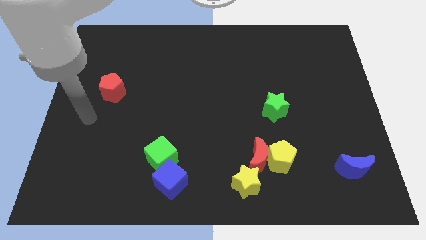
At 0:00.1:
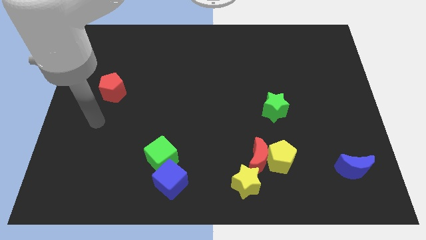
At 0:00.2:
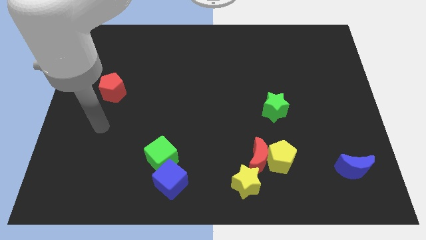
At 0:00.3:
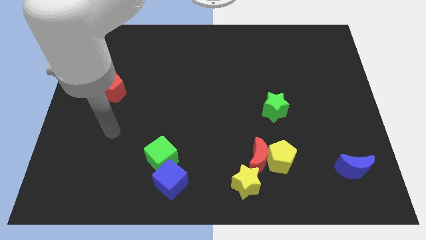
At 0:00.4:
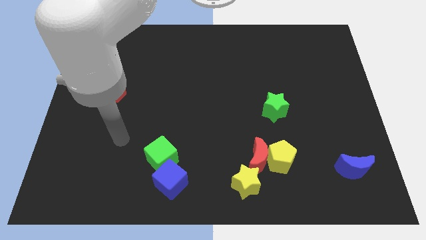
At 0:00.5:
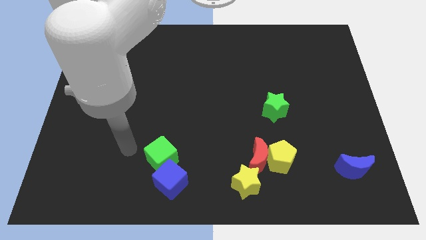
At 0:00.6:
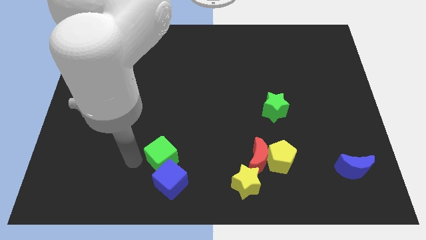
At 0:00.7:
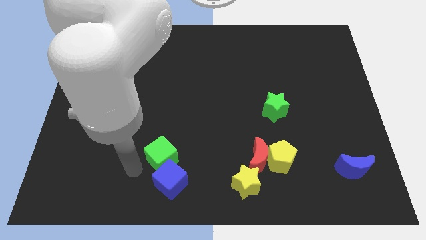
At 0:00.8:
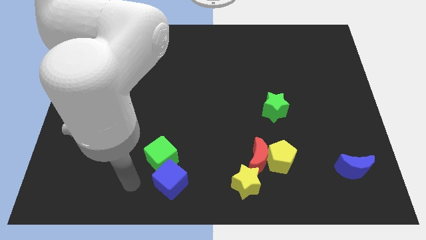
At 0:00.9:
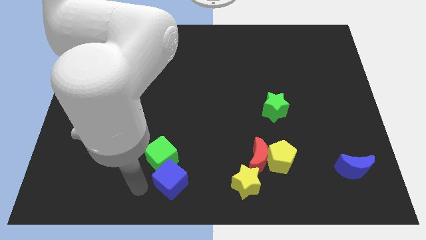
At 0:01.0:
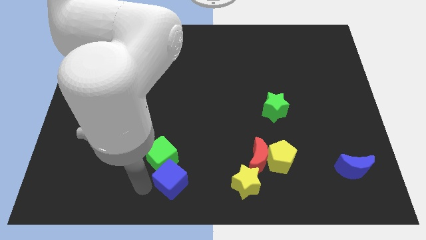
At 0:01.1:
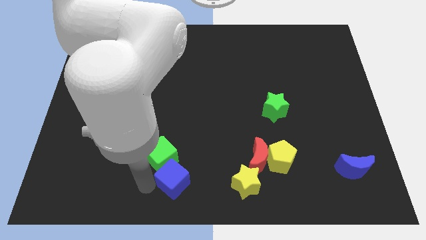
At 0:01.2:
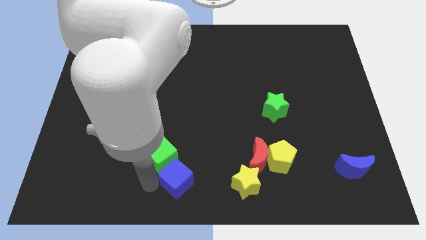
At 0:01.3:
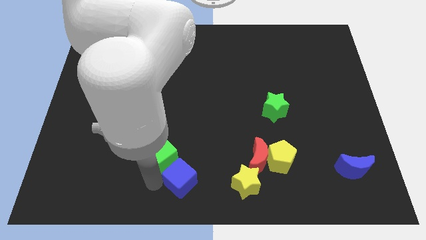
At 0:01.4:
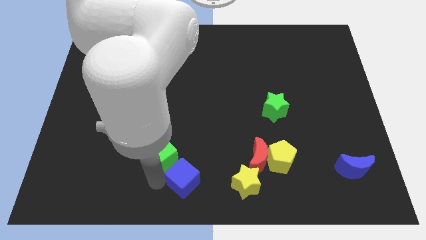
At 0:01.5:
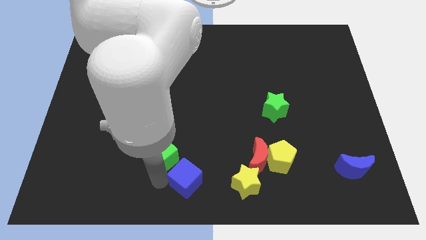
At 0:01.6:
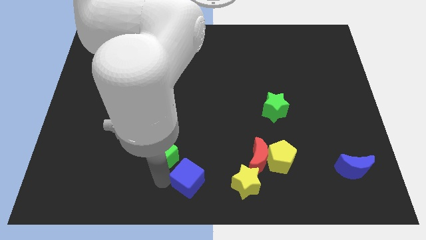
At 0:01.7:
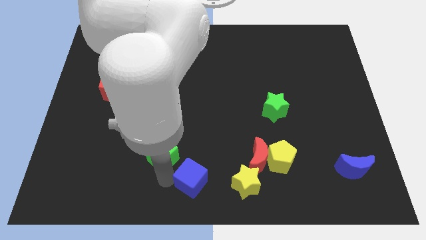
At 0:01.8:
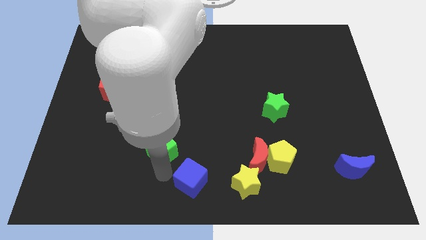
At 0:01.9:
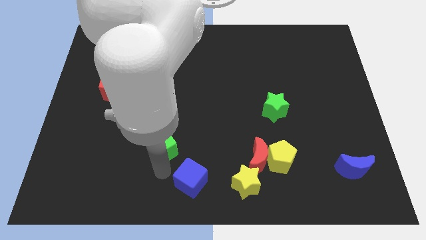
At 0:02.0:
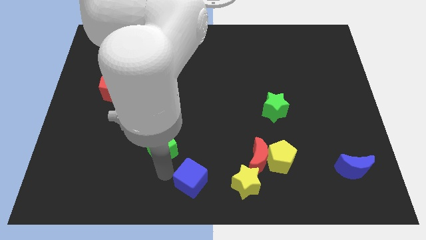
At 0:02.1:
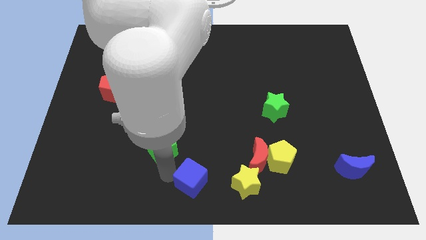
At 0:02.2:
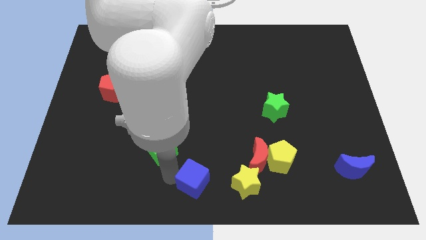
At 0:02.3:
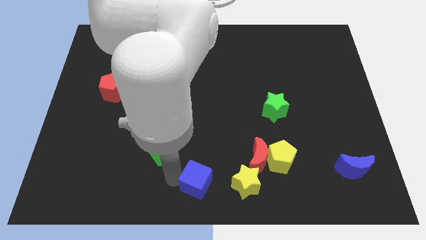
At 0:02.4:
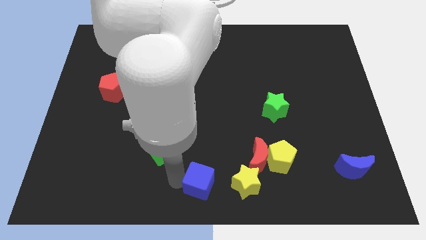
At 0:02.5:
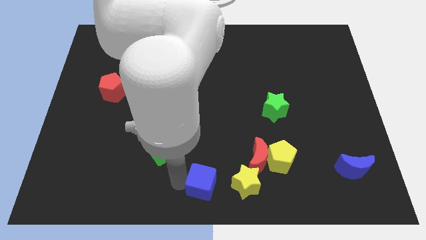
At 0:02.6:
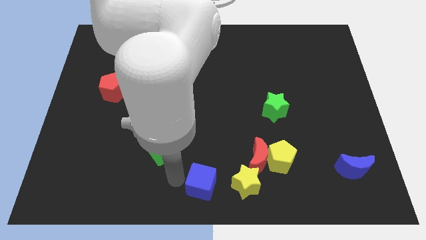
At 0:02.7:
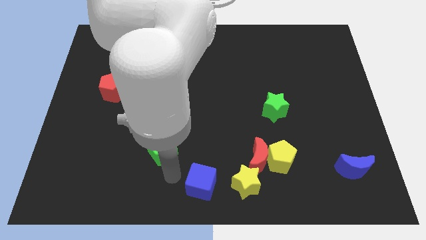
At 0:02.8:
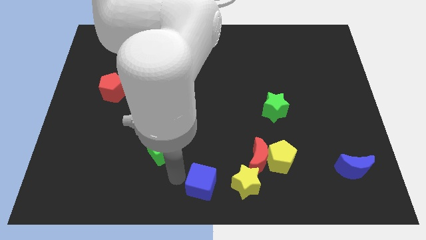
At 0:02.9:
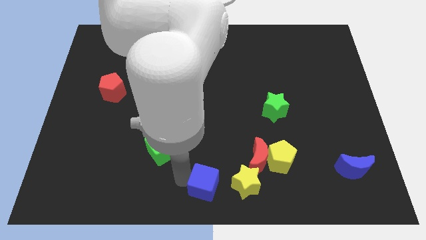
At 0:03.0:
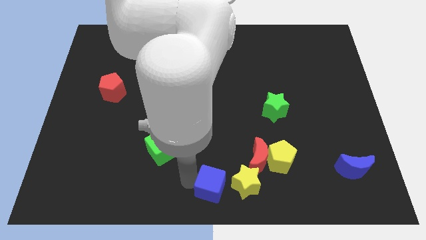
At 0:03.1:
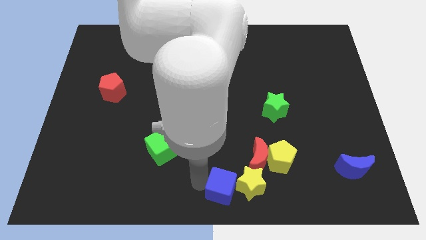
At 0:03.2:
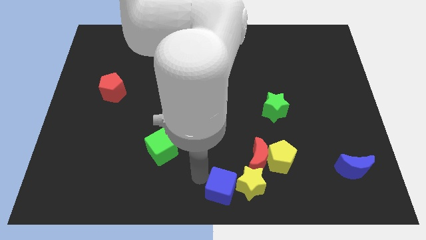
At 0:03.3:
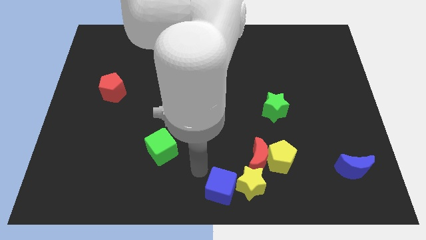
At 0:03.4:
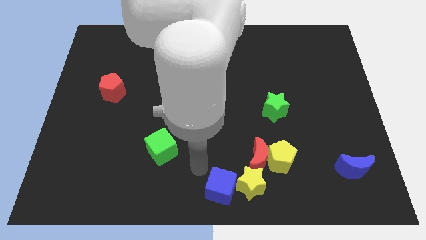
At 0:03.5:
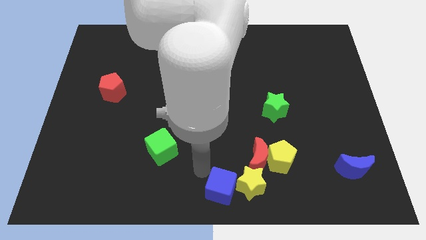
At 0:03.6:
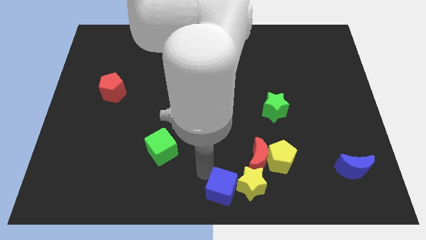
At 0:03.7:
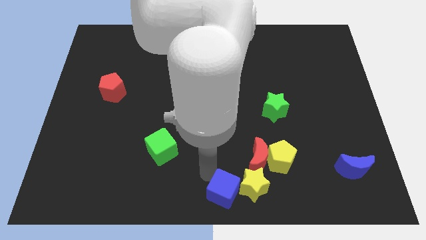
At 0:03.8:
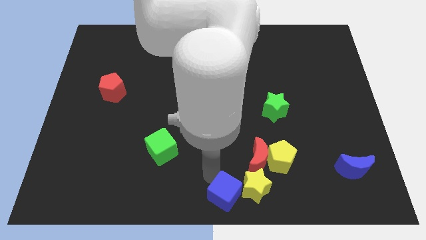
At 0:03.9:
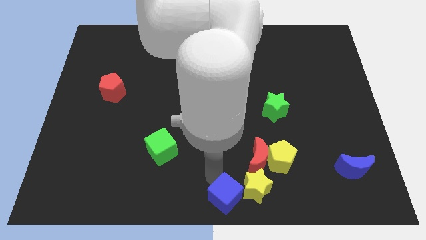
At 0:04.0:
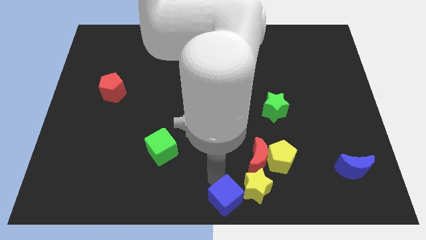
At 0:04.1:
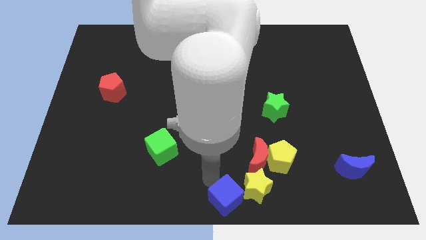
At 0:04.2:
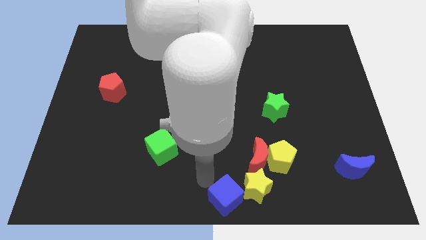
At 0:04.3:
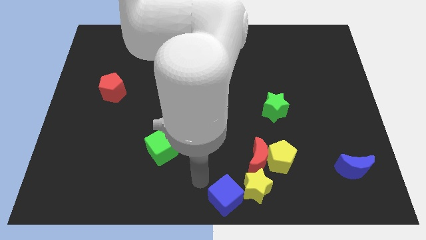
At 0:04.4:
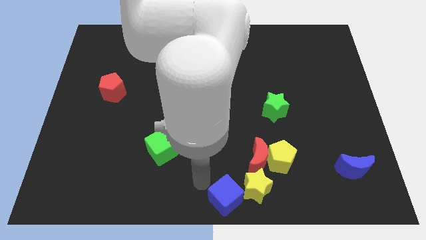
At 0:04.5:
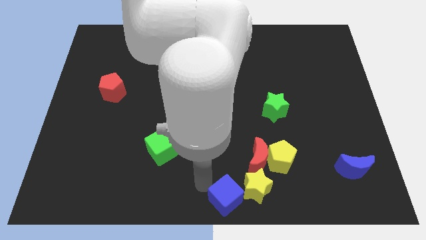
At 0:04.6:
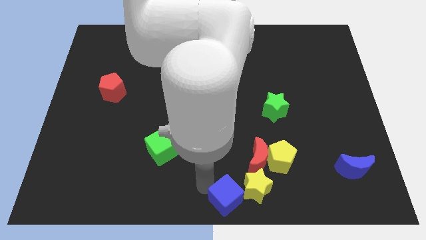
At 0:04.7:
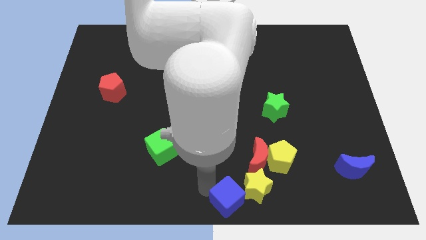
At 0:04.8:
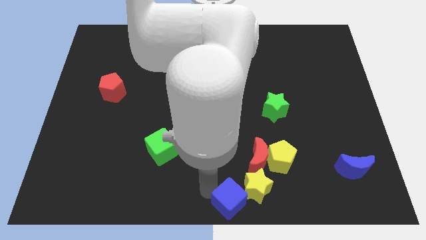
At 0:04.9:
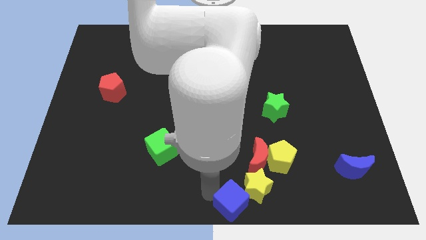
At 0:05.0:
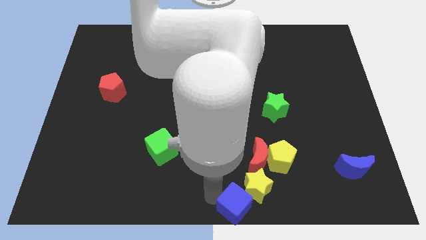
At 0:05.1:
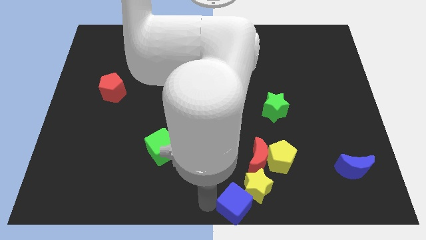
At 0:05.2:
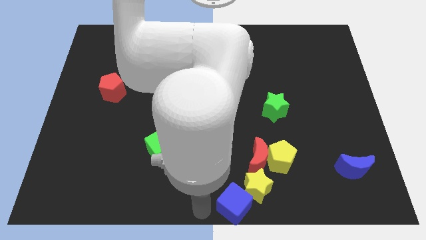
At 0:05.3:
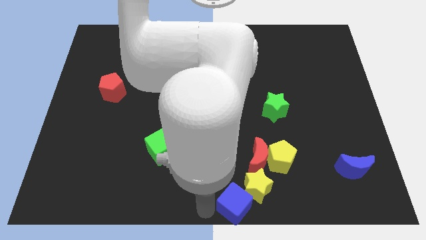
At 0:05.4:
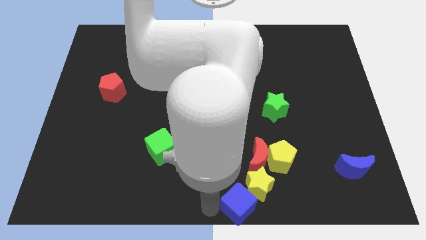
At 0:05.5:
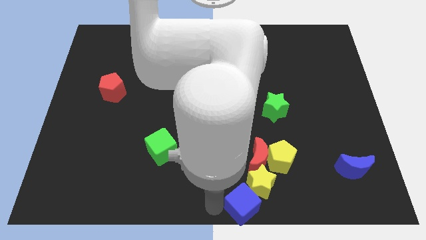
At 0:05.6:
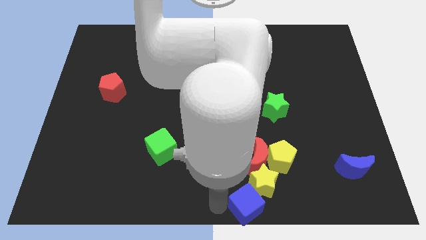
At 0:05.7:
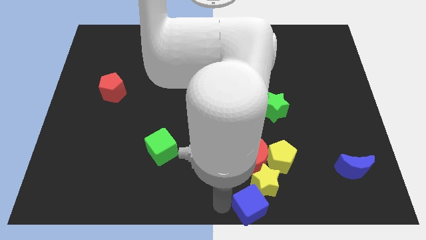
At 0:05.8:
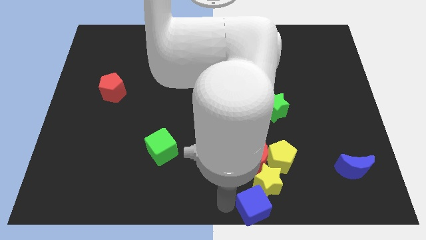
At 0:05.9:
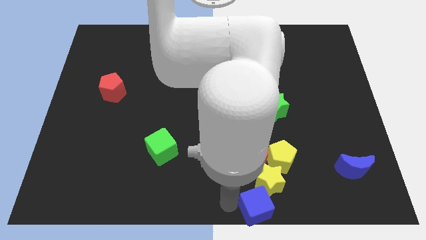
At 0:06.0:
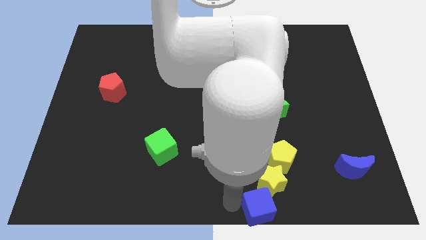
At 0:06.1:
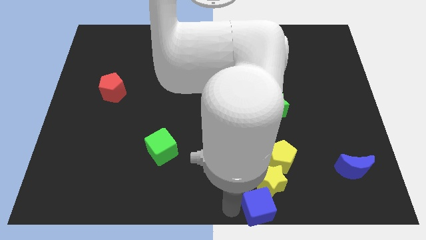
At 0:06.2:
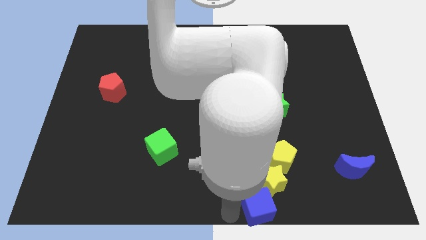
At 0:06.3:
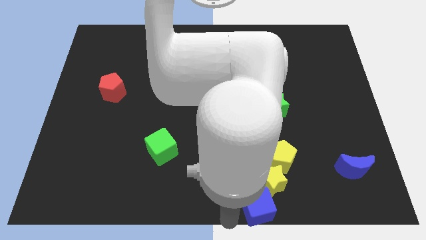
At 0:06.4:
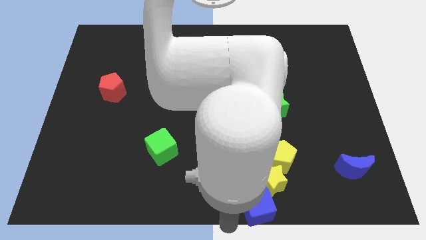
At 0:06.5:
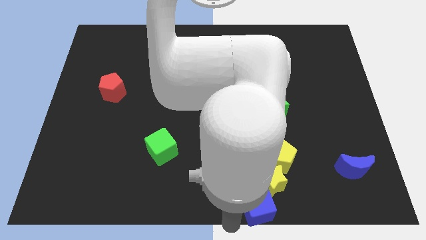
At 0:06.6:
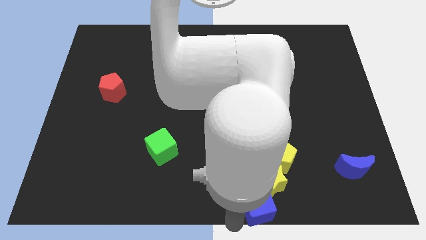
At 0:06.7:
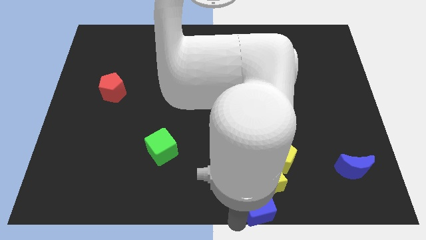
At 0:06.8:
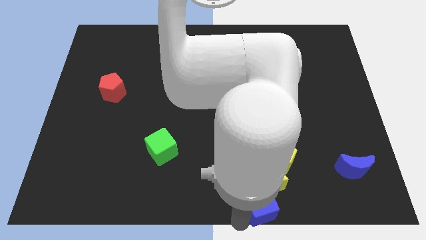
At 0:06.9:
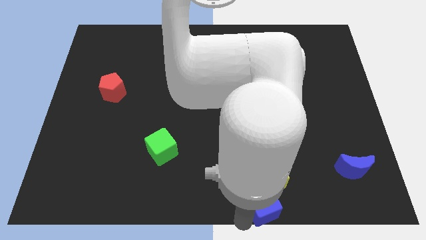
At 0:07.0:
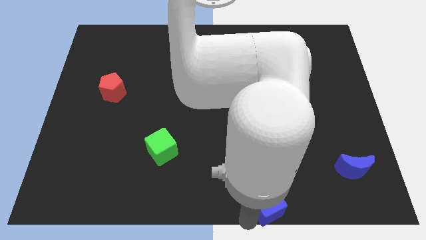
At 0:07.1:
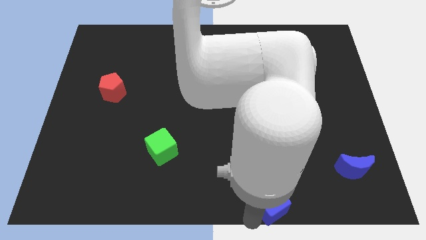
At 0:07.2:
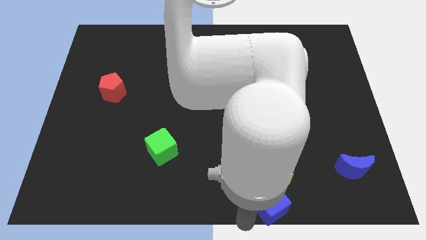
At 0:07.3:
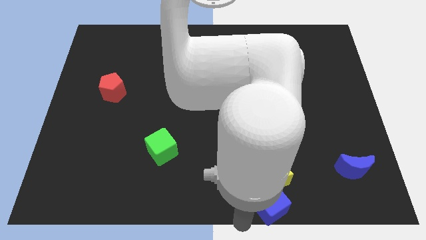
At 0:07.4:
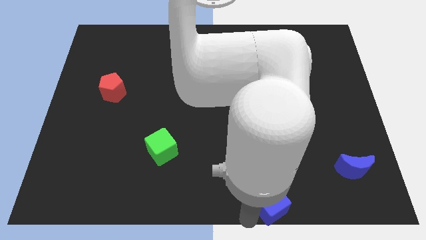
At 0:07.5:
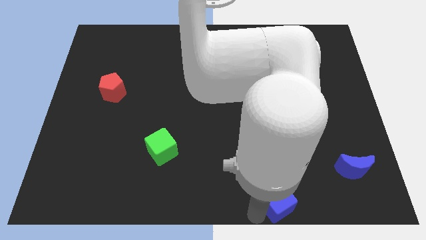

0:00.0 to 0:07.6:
move the blue cube to the right

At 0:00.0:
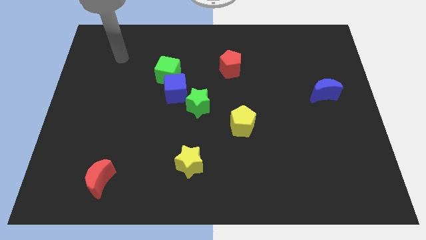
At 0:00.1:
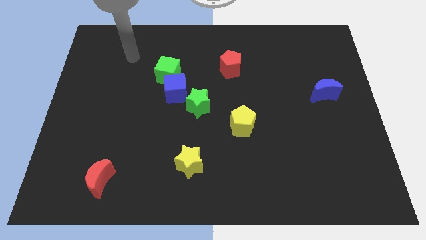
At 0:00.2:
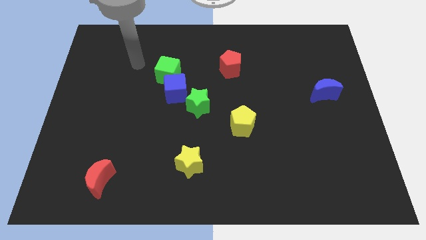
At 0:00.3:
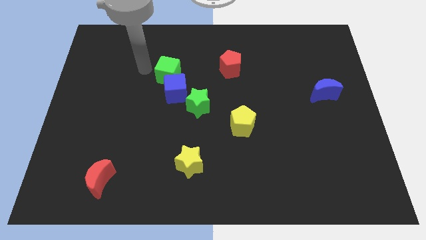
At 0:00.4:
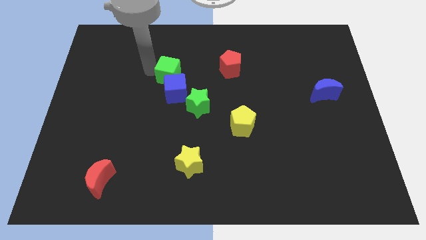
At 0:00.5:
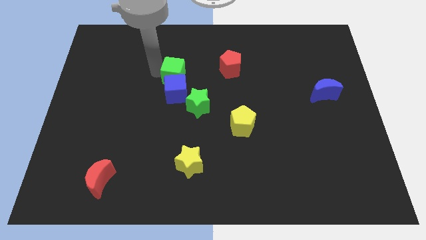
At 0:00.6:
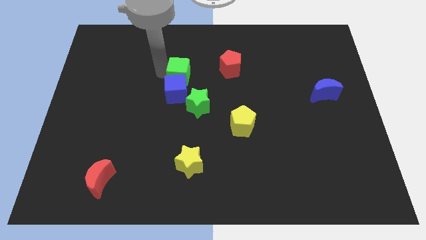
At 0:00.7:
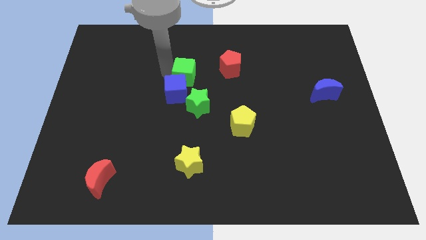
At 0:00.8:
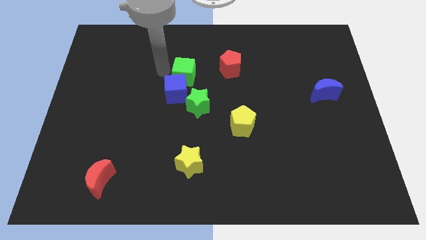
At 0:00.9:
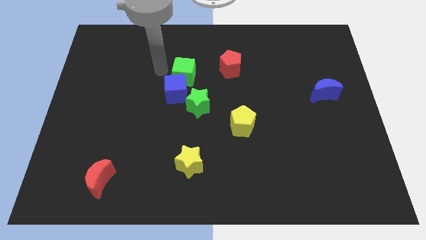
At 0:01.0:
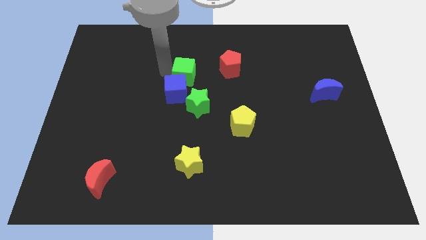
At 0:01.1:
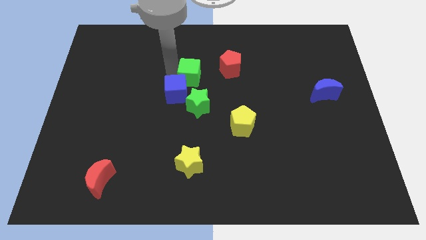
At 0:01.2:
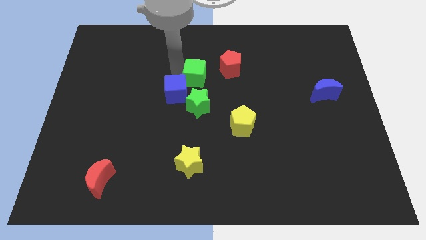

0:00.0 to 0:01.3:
push the green cube a little bit to the right
